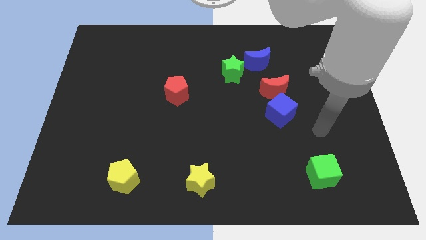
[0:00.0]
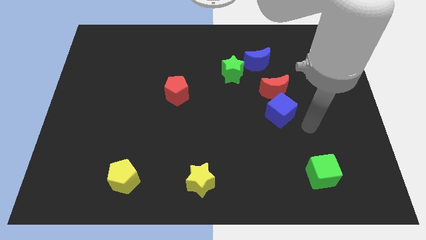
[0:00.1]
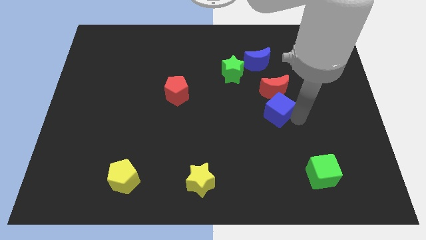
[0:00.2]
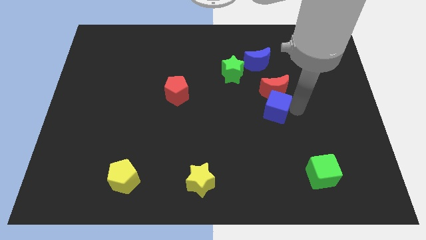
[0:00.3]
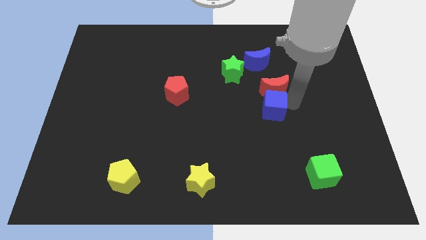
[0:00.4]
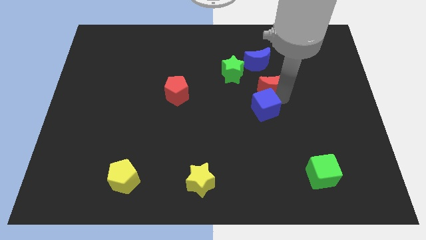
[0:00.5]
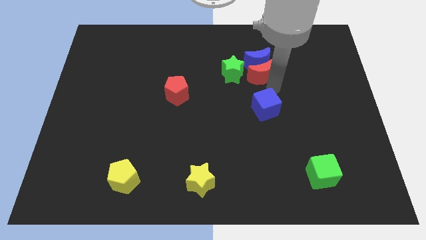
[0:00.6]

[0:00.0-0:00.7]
move the blue cube away from the red moon

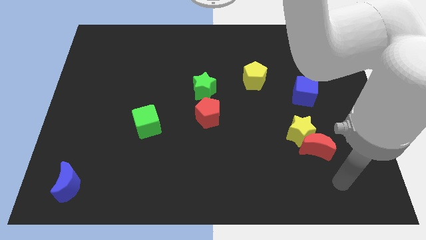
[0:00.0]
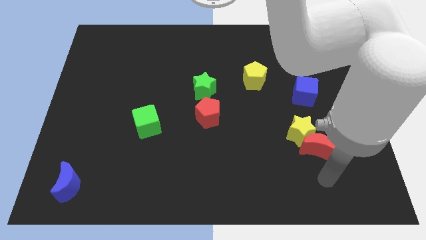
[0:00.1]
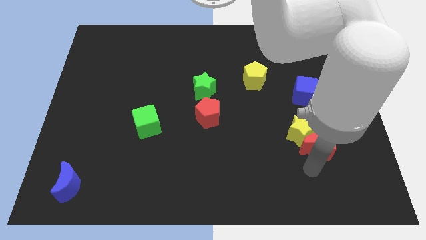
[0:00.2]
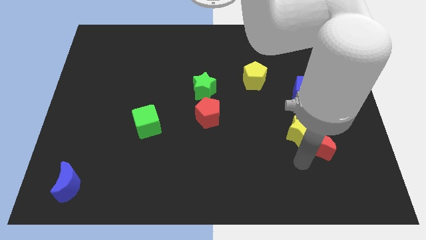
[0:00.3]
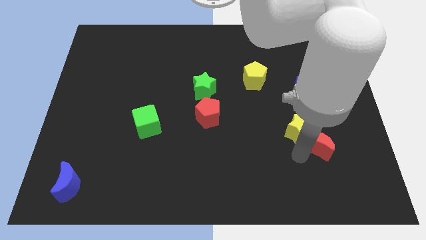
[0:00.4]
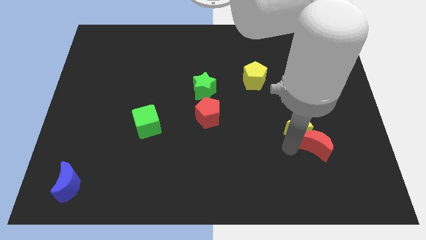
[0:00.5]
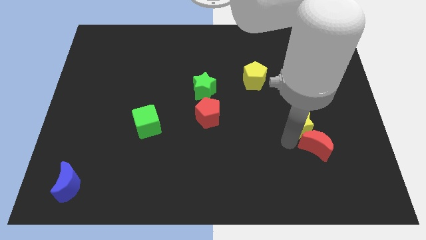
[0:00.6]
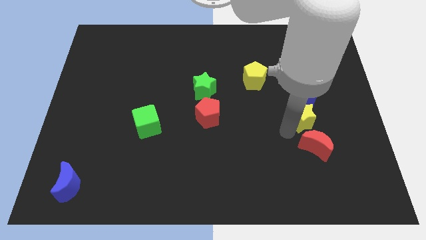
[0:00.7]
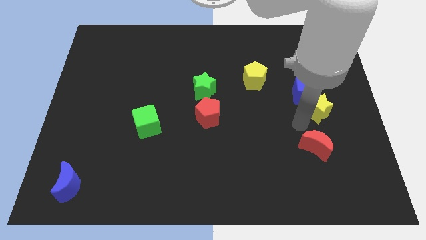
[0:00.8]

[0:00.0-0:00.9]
move the red moon away from the yellow star

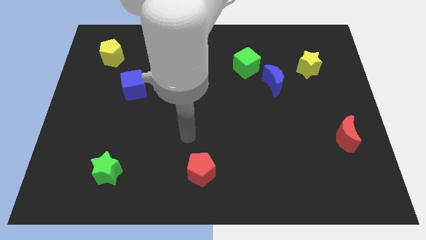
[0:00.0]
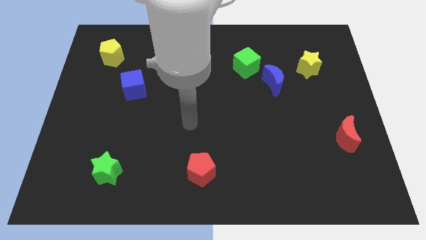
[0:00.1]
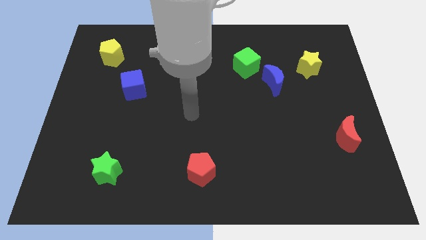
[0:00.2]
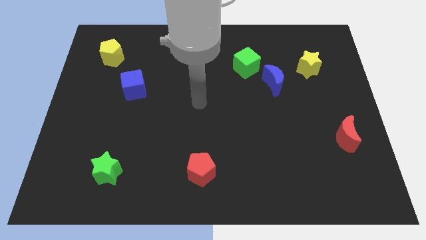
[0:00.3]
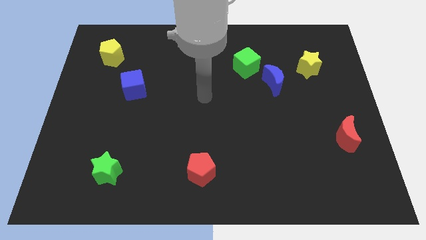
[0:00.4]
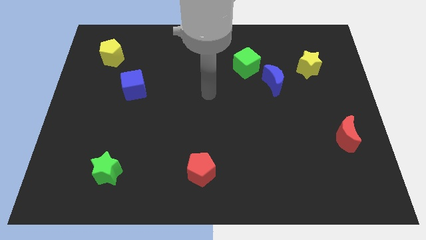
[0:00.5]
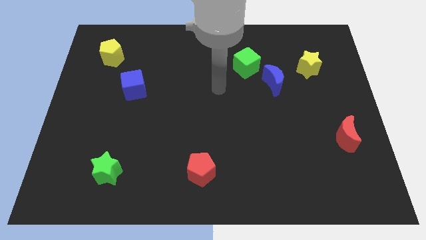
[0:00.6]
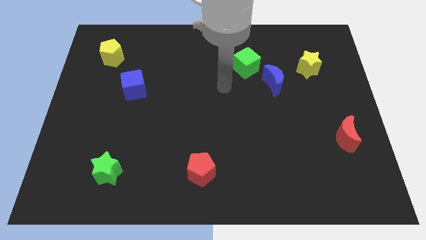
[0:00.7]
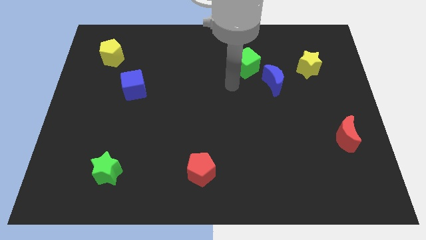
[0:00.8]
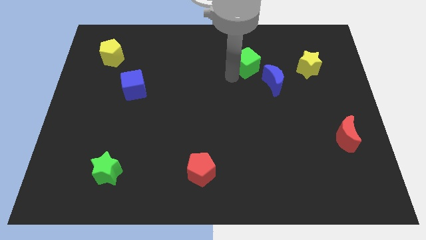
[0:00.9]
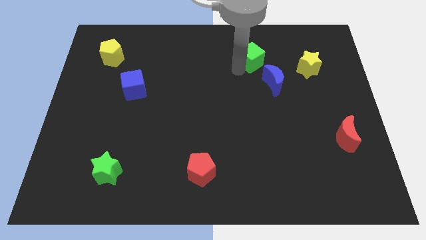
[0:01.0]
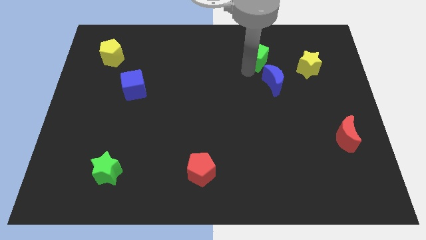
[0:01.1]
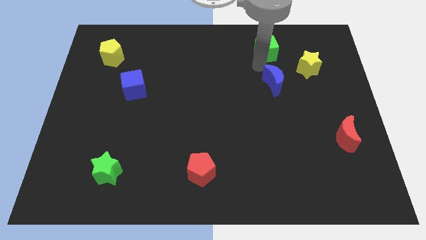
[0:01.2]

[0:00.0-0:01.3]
separate the blue moon from the green cube

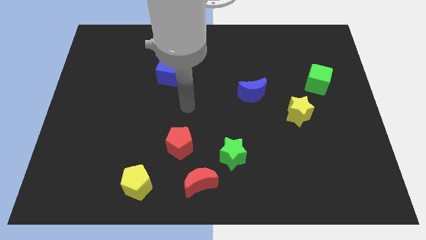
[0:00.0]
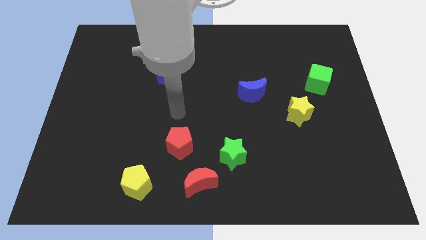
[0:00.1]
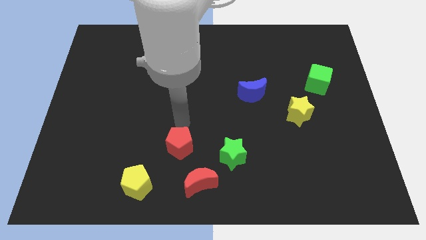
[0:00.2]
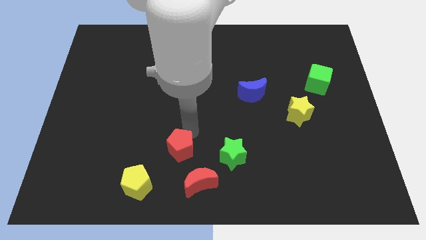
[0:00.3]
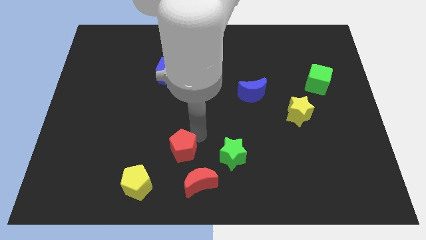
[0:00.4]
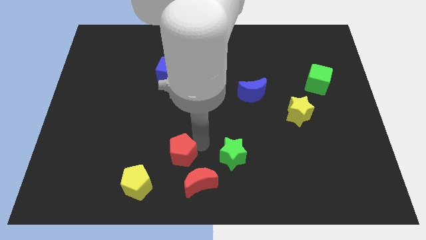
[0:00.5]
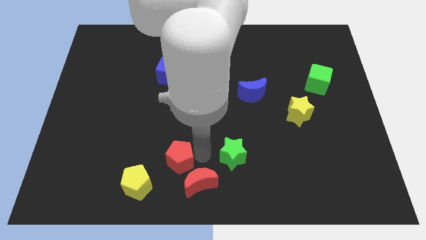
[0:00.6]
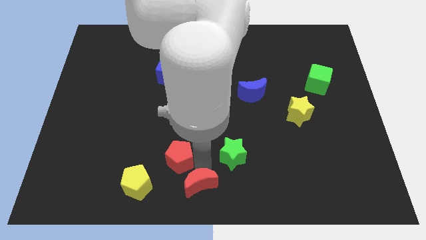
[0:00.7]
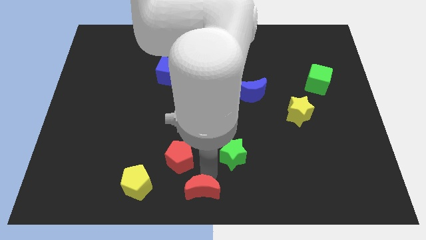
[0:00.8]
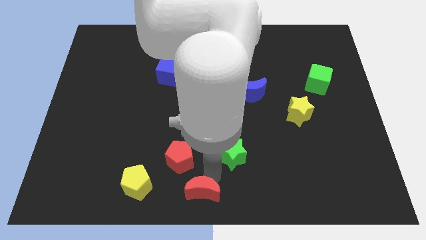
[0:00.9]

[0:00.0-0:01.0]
move the green star away from the red moon

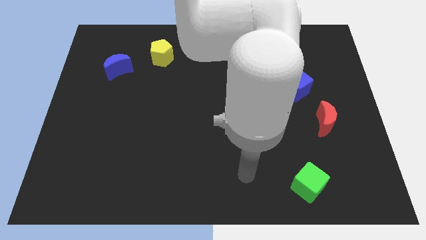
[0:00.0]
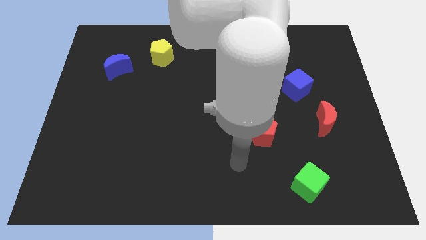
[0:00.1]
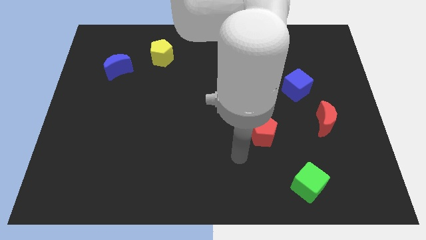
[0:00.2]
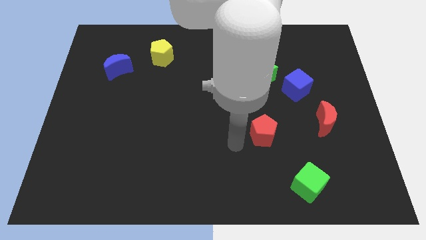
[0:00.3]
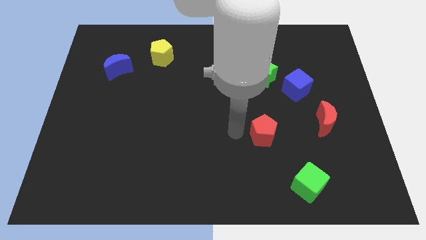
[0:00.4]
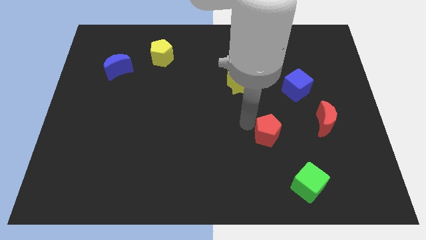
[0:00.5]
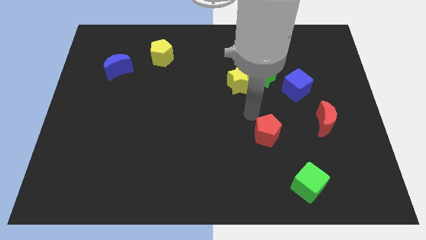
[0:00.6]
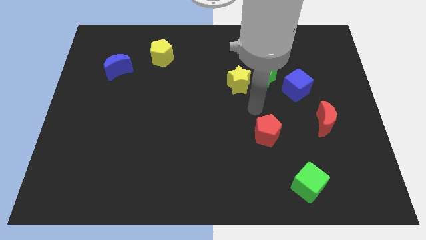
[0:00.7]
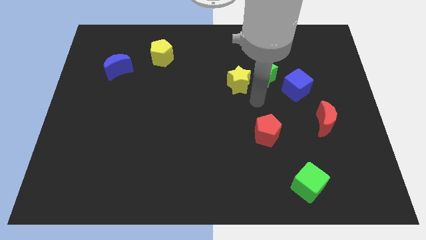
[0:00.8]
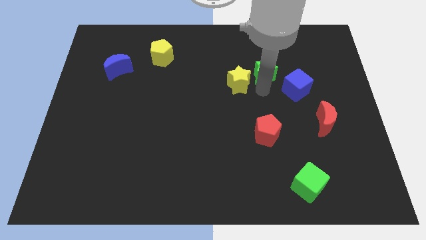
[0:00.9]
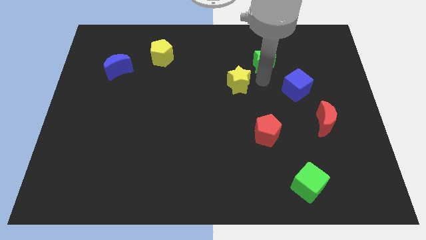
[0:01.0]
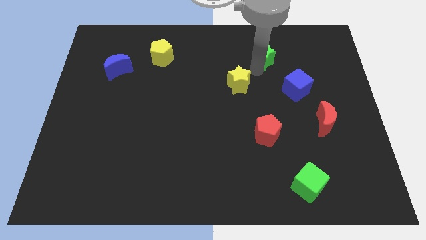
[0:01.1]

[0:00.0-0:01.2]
pull the yellow star apart from the green star

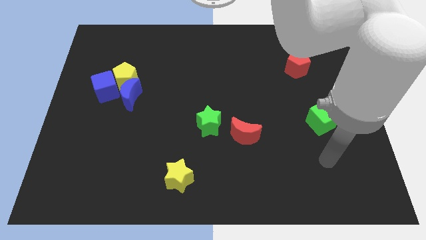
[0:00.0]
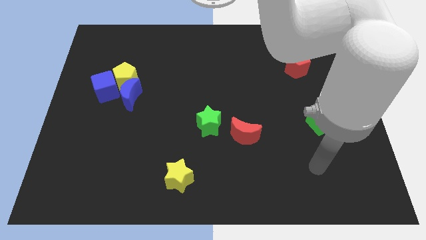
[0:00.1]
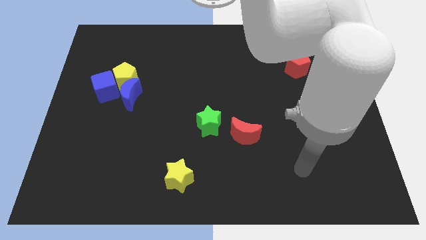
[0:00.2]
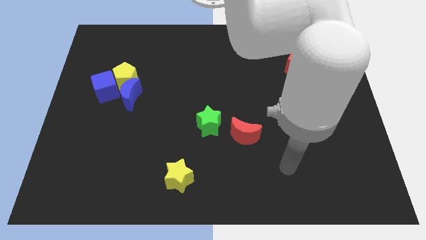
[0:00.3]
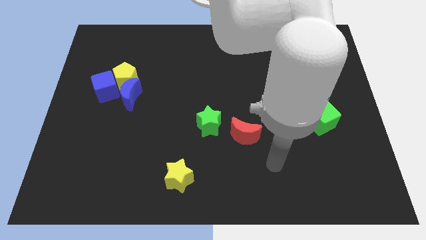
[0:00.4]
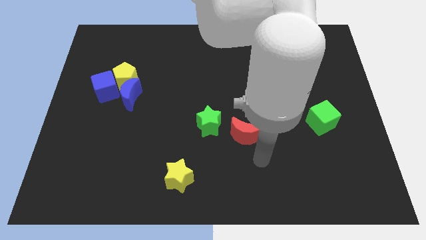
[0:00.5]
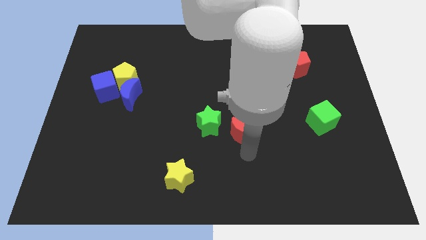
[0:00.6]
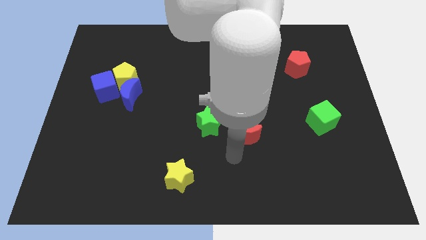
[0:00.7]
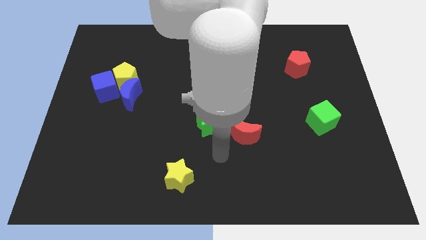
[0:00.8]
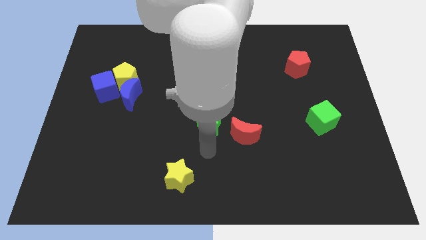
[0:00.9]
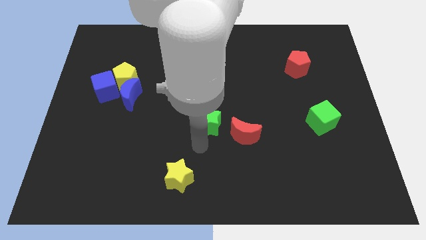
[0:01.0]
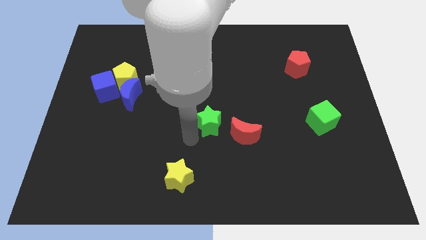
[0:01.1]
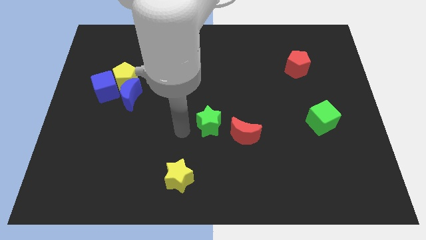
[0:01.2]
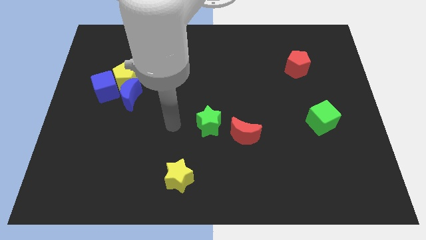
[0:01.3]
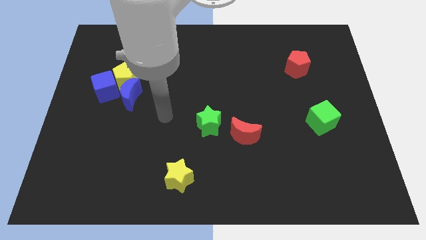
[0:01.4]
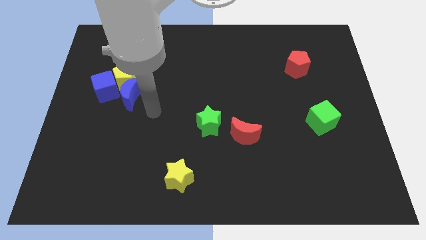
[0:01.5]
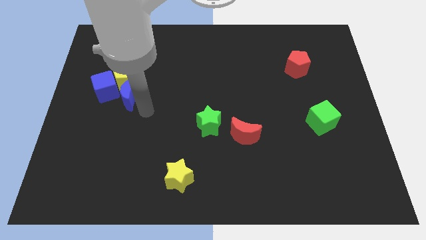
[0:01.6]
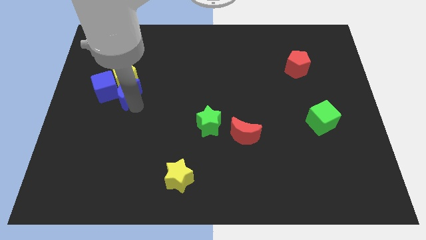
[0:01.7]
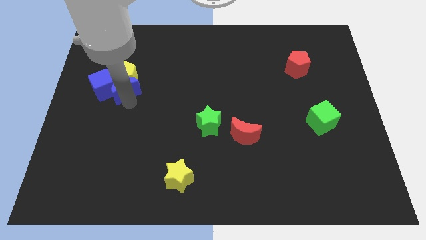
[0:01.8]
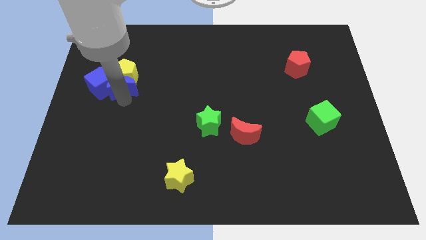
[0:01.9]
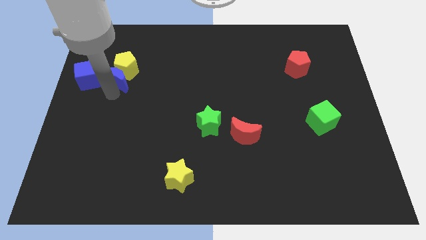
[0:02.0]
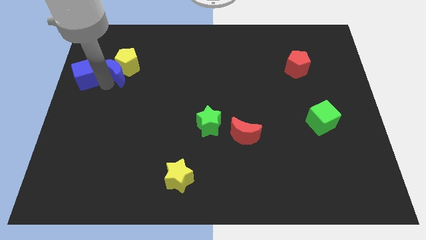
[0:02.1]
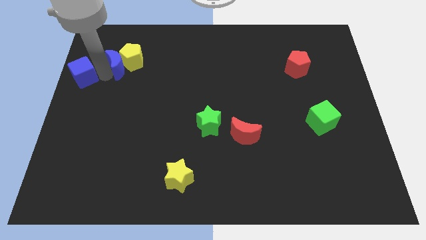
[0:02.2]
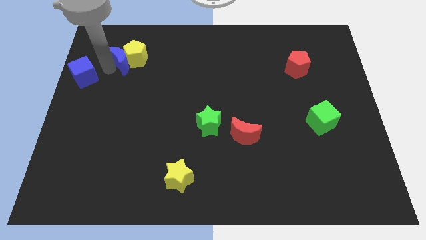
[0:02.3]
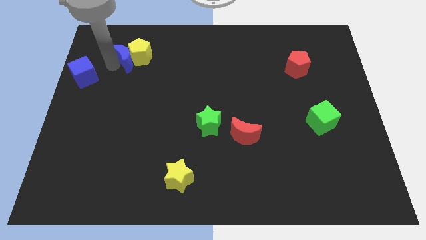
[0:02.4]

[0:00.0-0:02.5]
separate the yellow pentagon from the blue cube and blue moon

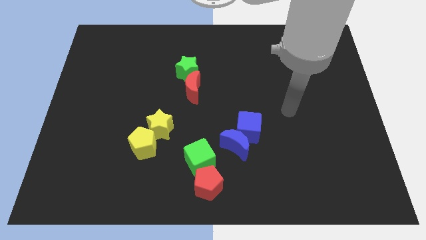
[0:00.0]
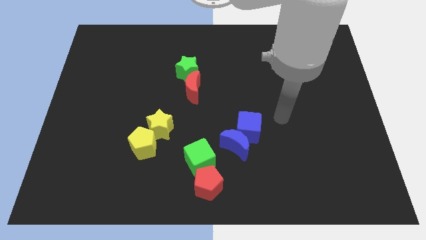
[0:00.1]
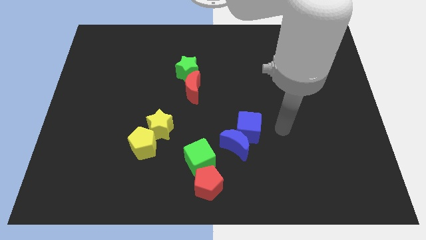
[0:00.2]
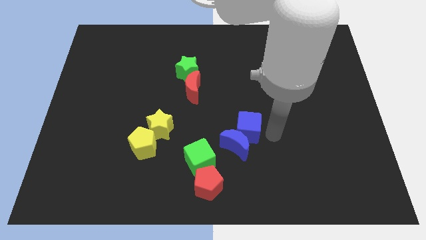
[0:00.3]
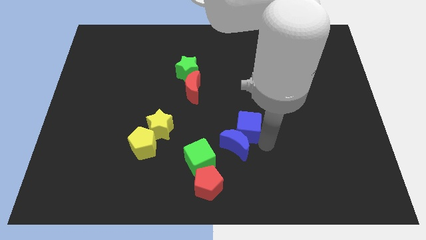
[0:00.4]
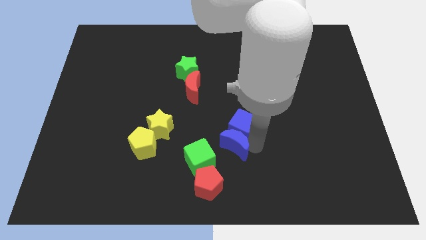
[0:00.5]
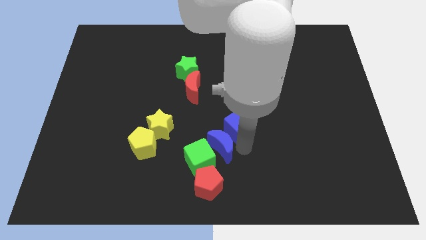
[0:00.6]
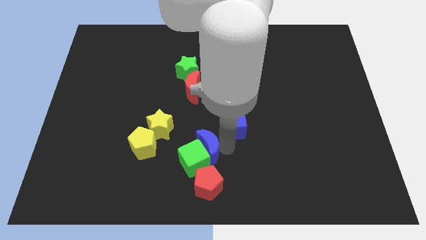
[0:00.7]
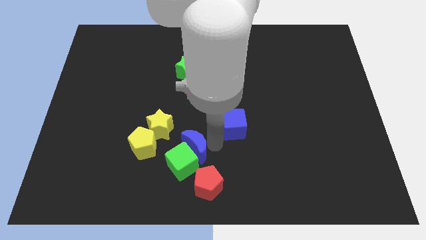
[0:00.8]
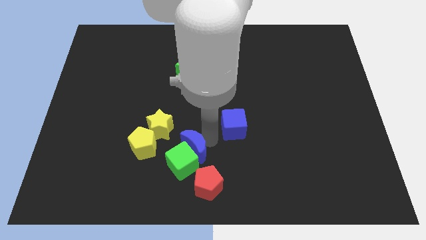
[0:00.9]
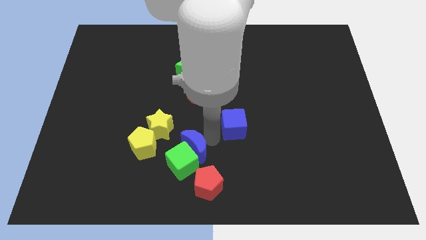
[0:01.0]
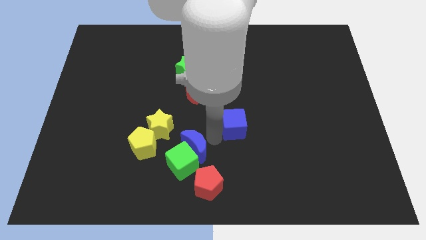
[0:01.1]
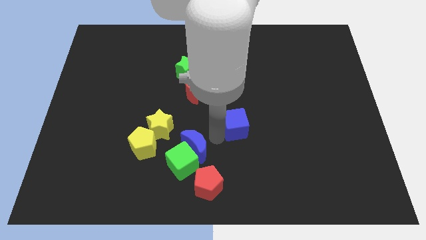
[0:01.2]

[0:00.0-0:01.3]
separate the blue cube from the blue moon

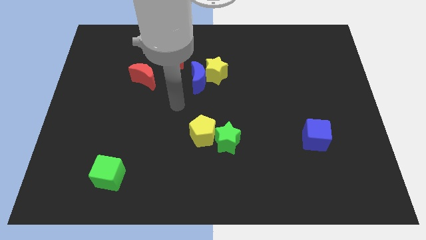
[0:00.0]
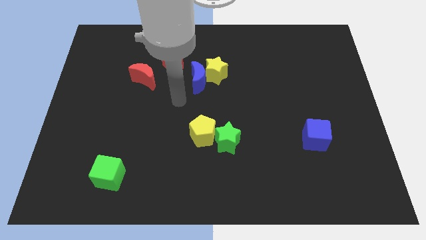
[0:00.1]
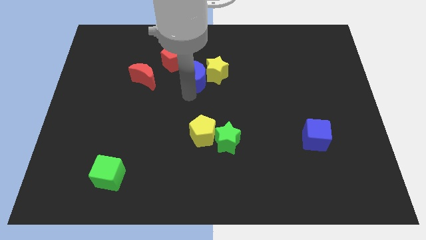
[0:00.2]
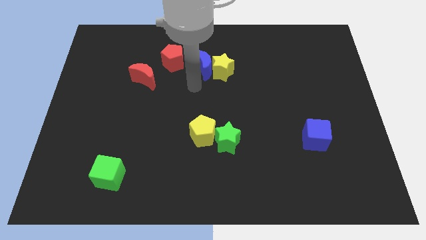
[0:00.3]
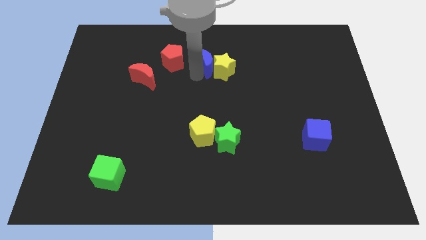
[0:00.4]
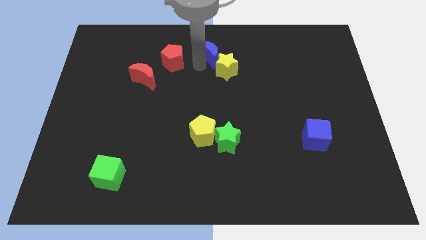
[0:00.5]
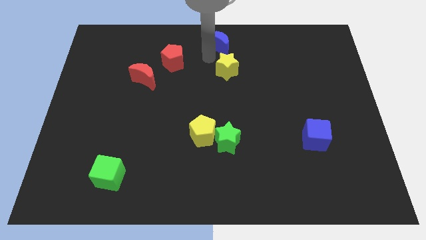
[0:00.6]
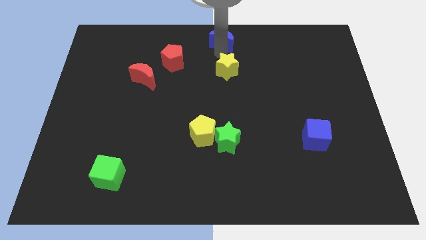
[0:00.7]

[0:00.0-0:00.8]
move the yellow star away from the blue moon
